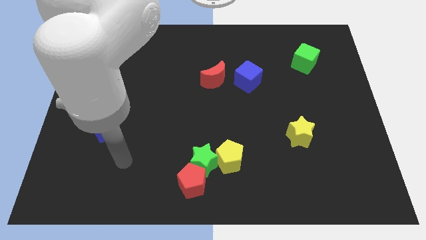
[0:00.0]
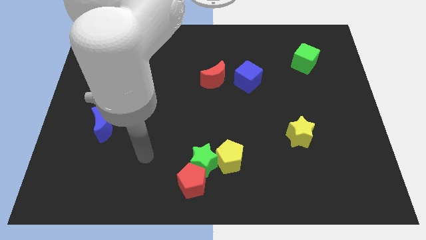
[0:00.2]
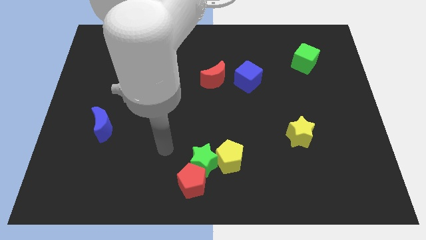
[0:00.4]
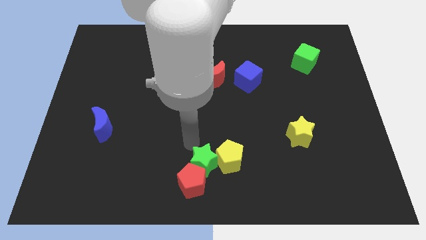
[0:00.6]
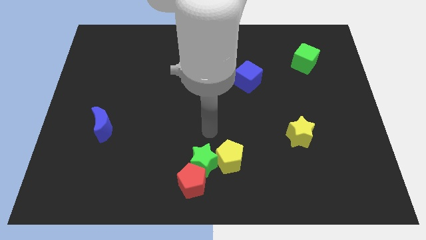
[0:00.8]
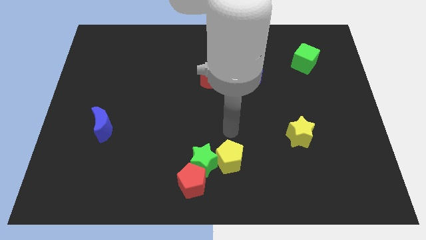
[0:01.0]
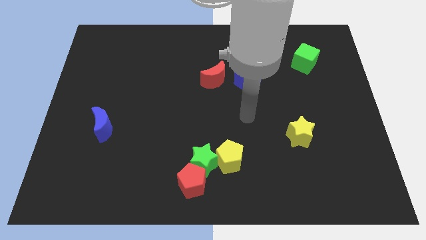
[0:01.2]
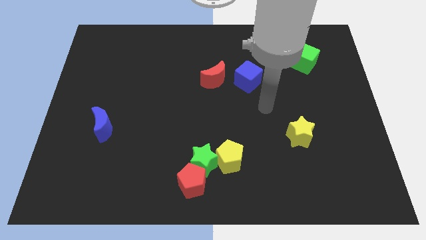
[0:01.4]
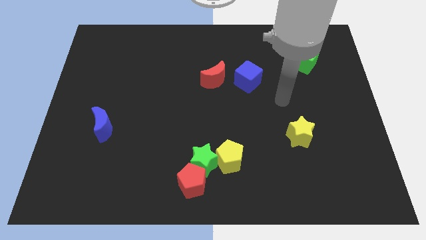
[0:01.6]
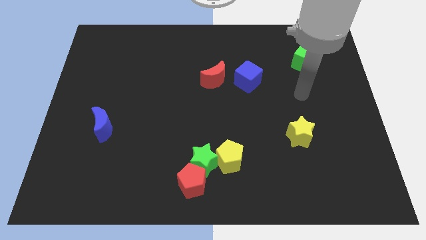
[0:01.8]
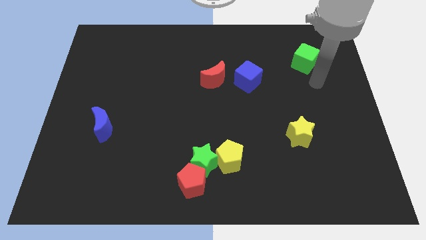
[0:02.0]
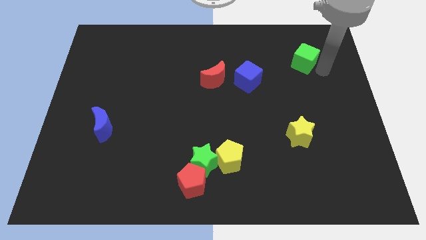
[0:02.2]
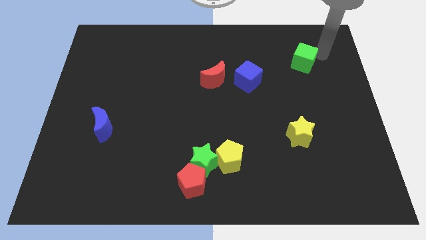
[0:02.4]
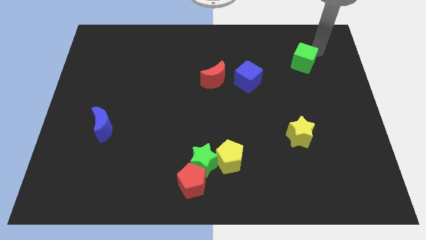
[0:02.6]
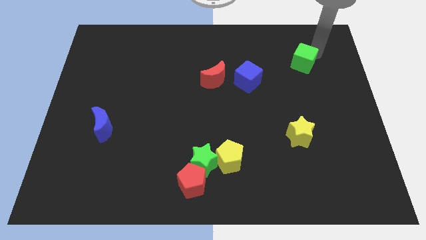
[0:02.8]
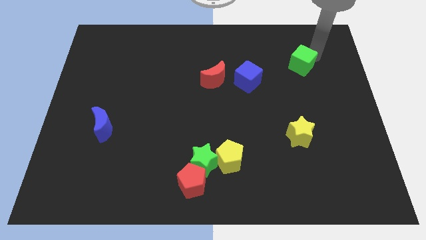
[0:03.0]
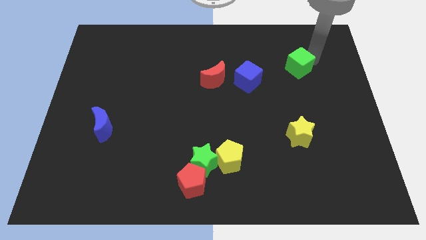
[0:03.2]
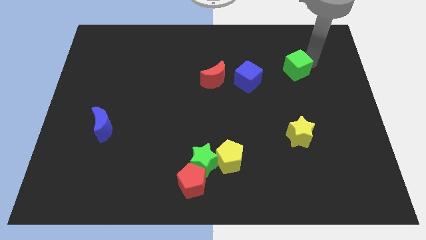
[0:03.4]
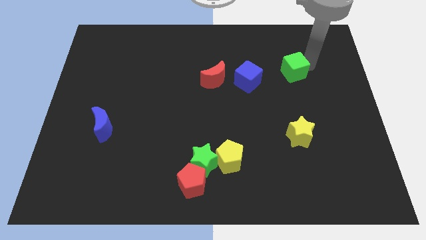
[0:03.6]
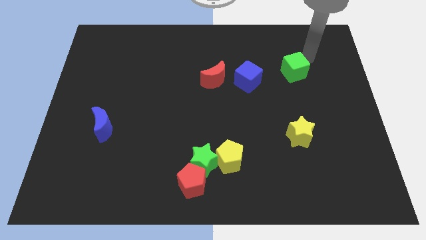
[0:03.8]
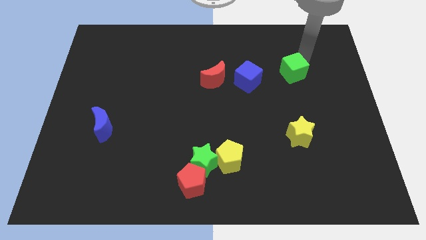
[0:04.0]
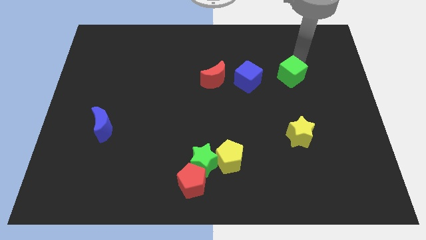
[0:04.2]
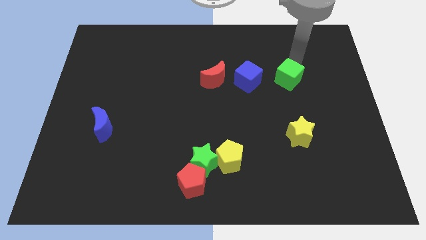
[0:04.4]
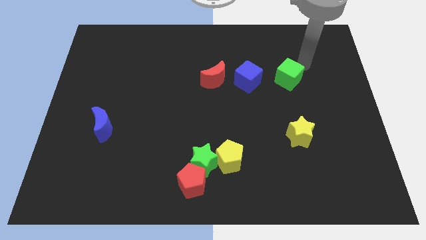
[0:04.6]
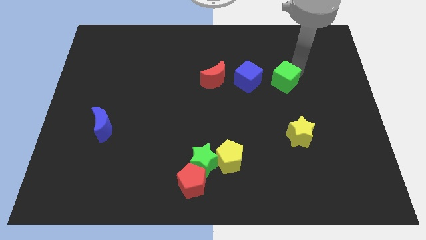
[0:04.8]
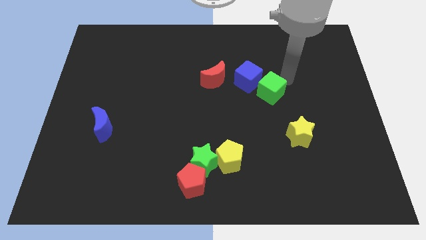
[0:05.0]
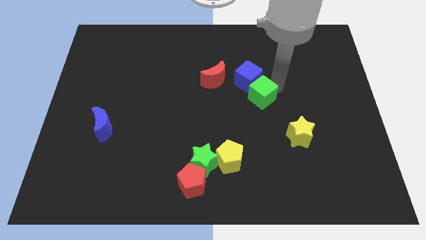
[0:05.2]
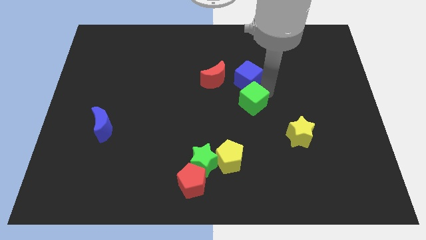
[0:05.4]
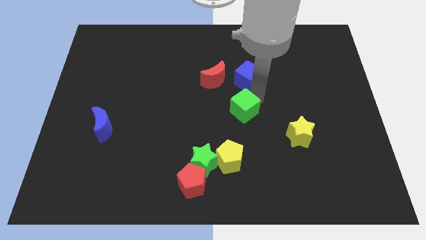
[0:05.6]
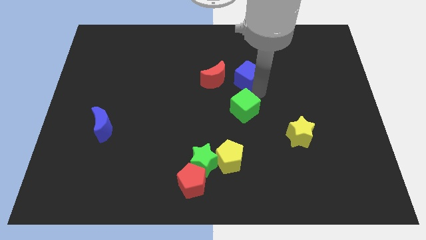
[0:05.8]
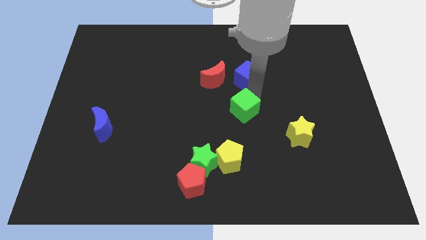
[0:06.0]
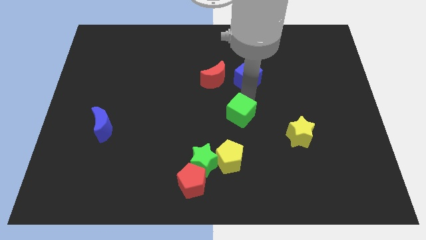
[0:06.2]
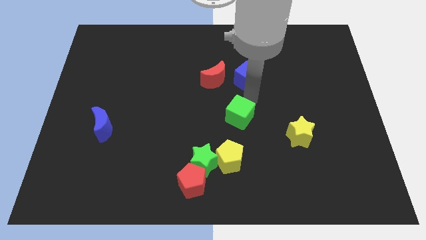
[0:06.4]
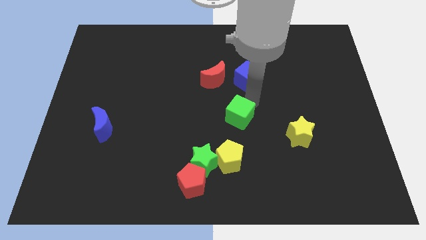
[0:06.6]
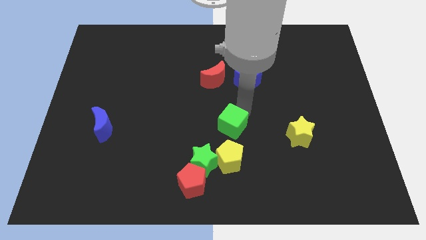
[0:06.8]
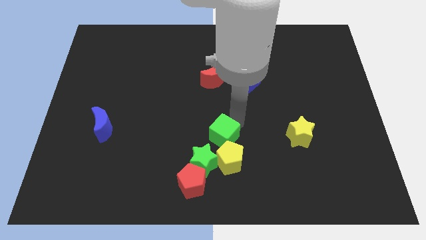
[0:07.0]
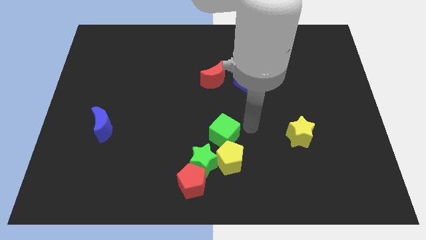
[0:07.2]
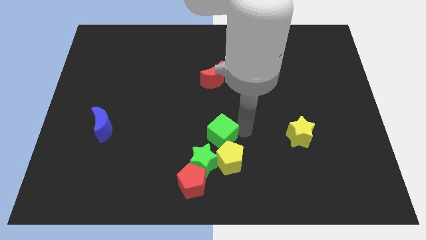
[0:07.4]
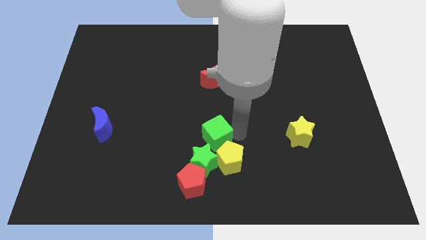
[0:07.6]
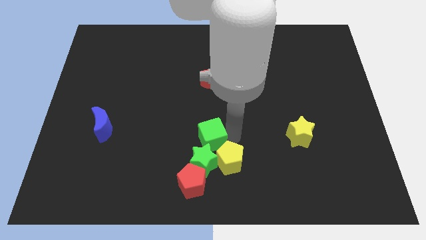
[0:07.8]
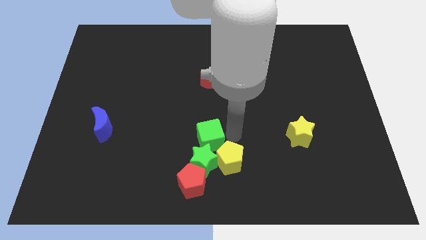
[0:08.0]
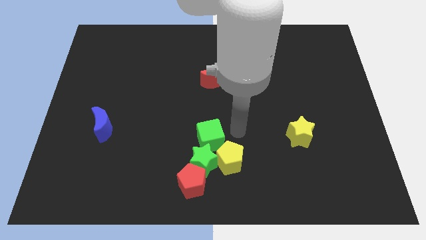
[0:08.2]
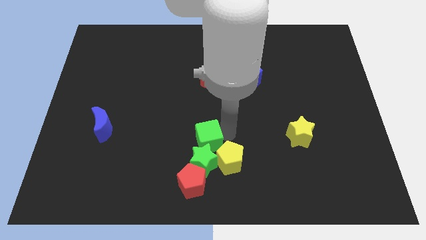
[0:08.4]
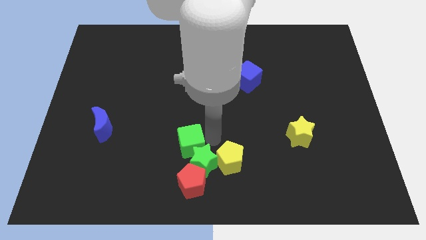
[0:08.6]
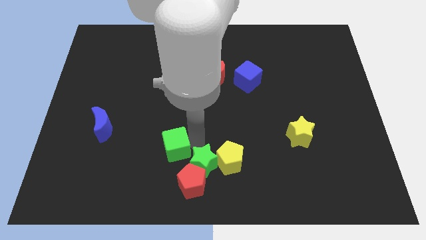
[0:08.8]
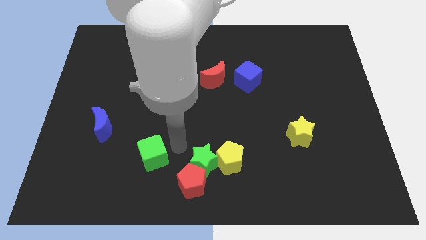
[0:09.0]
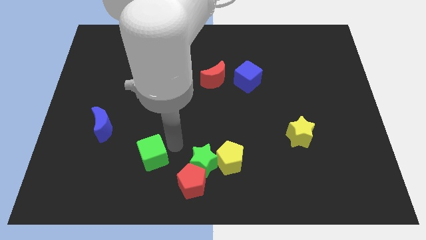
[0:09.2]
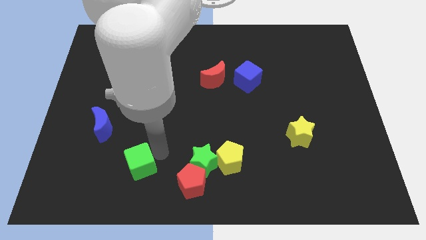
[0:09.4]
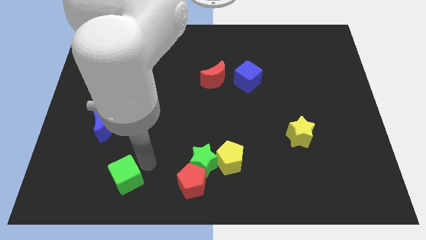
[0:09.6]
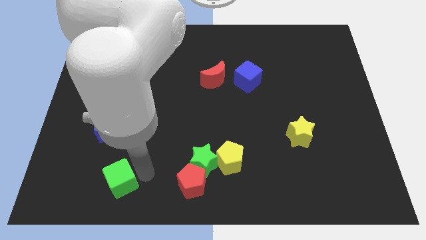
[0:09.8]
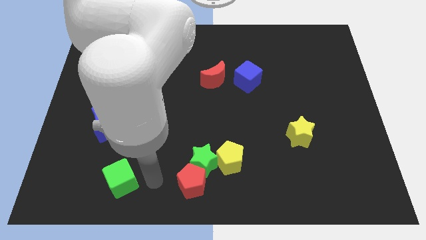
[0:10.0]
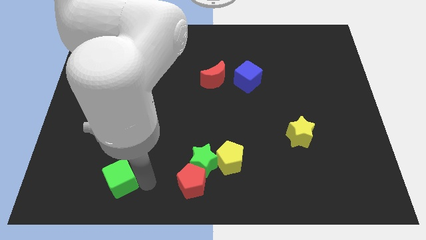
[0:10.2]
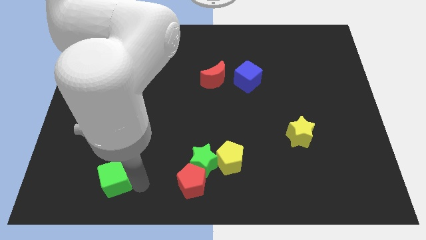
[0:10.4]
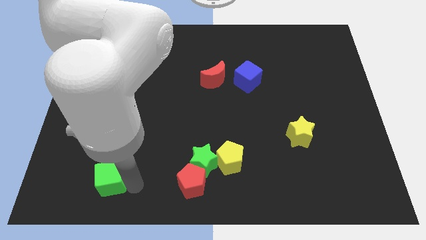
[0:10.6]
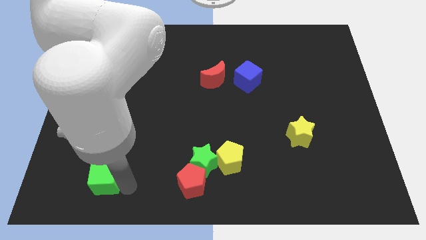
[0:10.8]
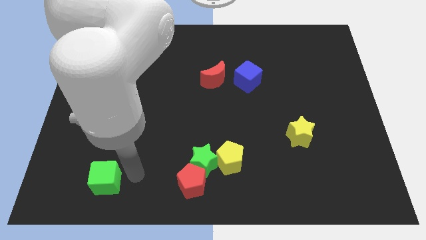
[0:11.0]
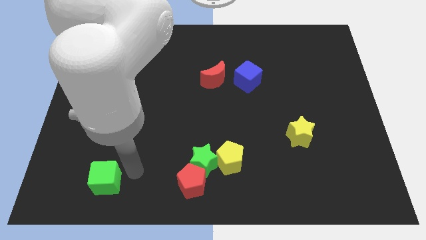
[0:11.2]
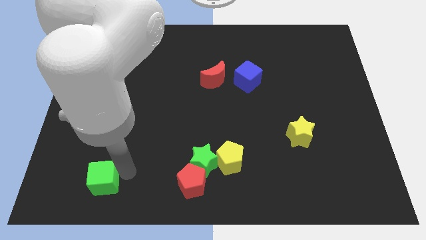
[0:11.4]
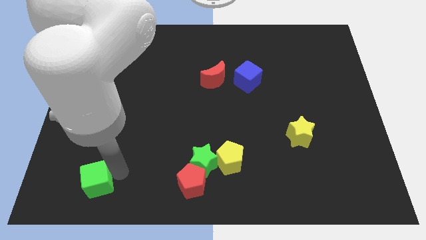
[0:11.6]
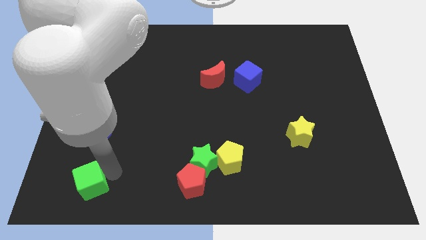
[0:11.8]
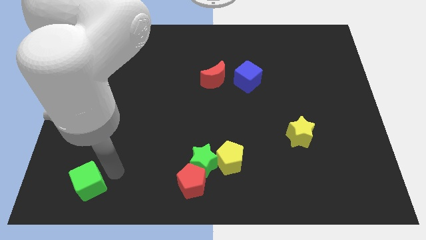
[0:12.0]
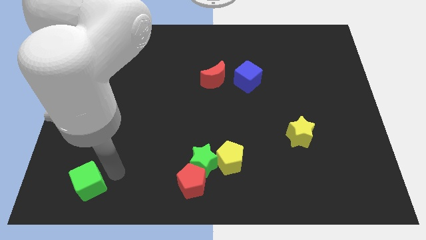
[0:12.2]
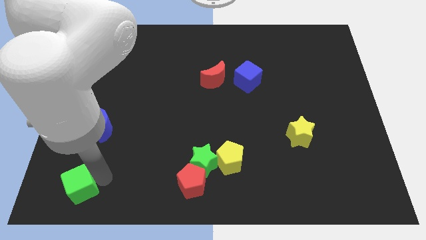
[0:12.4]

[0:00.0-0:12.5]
move the green cube to the bottom left of the board

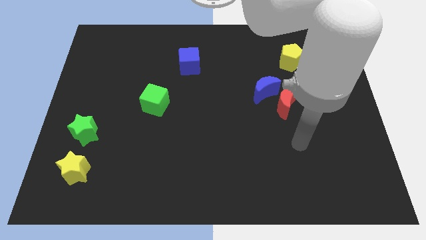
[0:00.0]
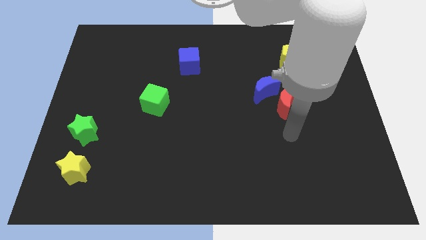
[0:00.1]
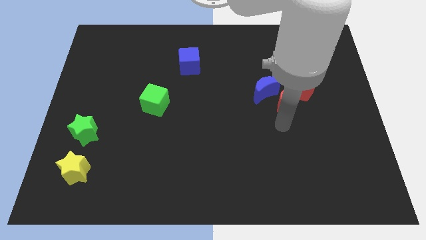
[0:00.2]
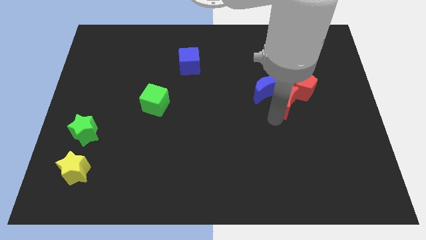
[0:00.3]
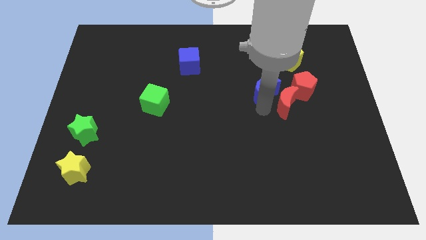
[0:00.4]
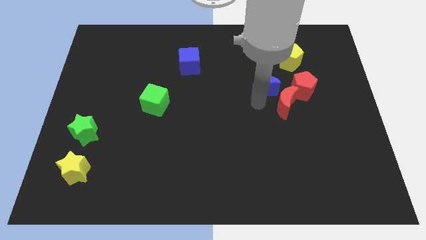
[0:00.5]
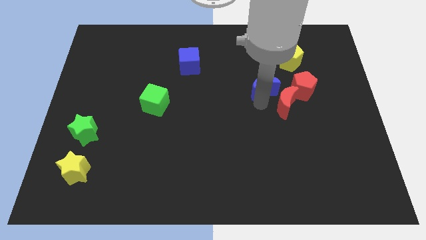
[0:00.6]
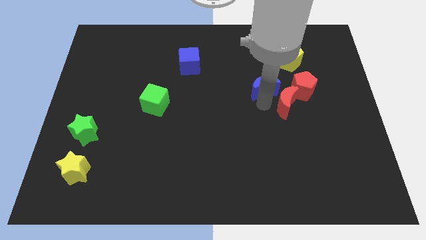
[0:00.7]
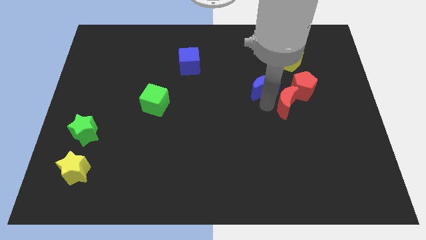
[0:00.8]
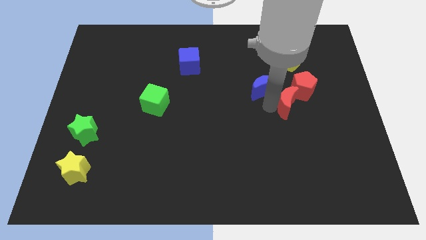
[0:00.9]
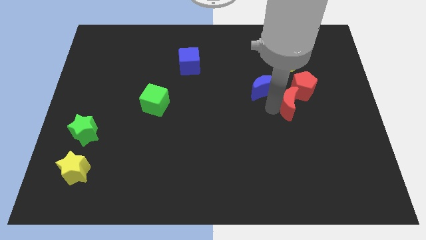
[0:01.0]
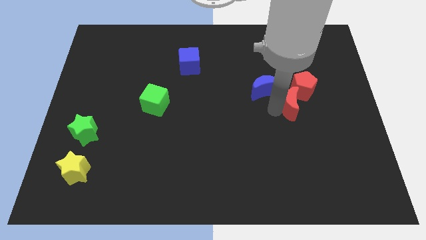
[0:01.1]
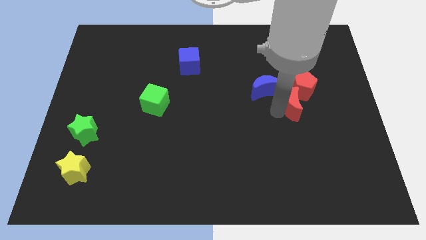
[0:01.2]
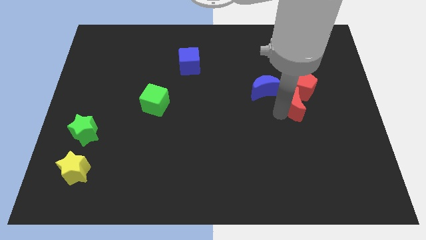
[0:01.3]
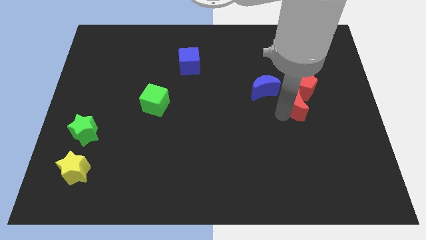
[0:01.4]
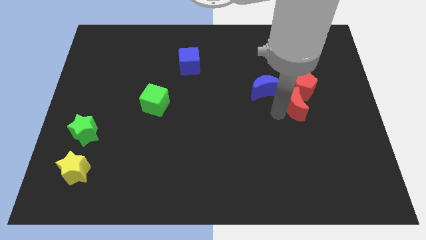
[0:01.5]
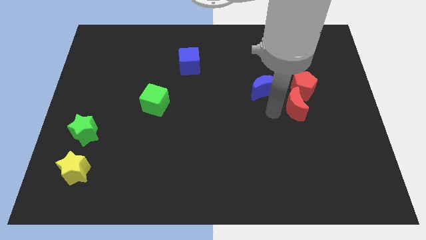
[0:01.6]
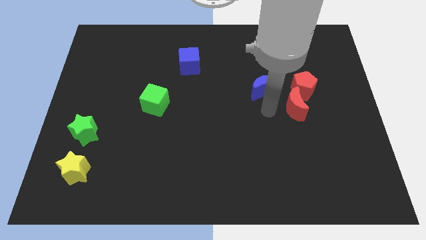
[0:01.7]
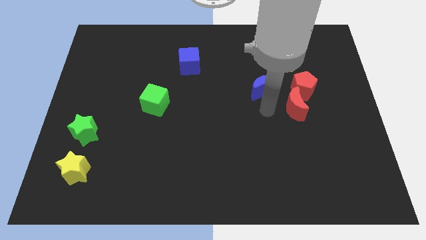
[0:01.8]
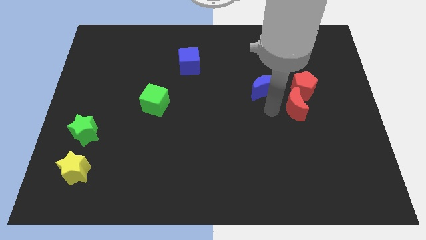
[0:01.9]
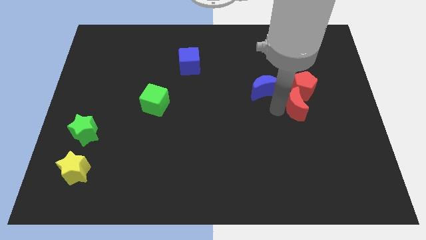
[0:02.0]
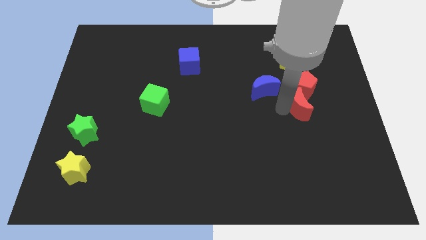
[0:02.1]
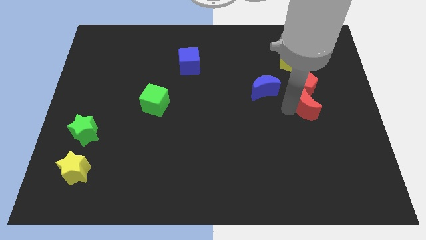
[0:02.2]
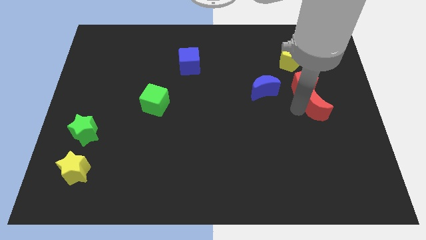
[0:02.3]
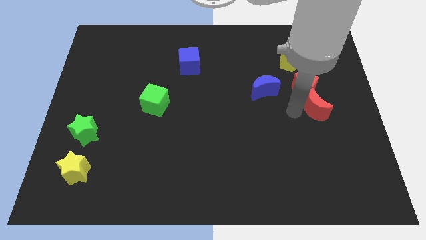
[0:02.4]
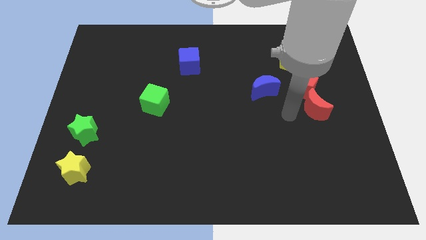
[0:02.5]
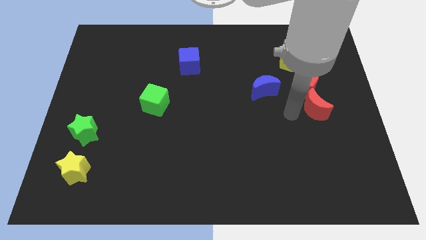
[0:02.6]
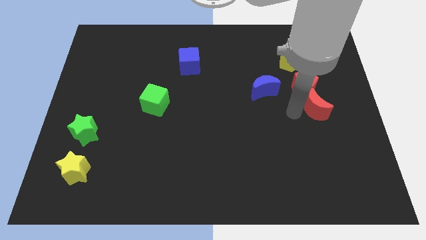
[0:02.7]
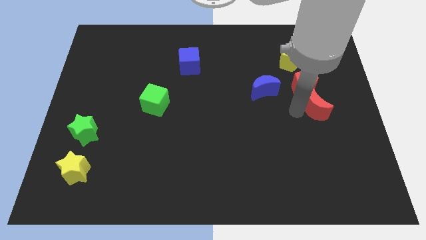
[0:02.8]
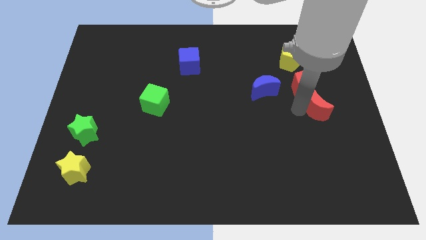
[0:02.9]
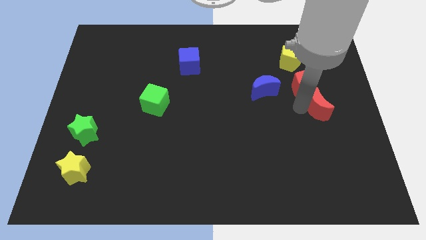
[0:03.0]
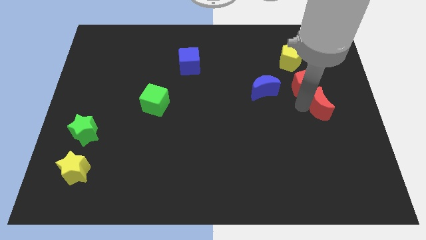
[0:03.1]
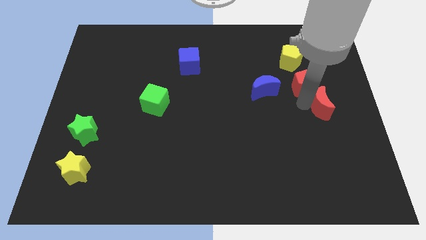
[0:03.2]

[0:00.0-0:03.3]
move the red moon to the right side of the board
